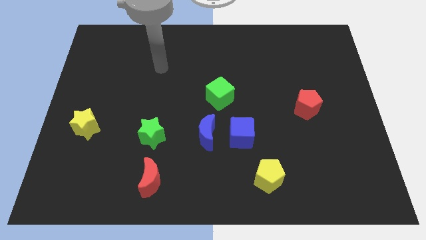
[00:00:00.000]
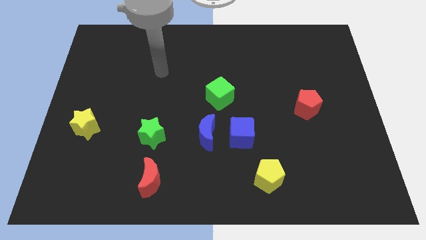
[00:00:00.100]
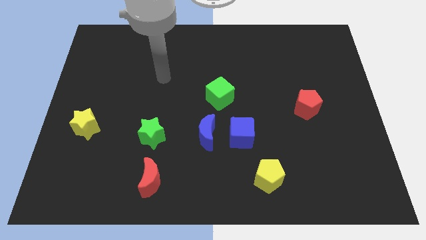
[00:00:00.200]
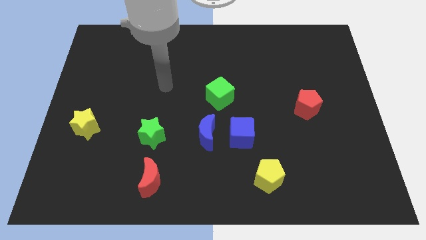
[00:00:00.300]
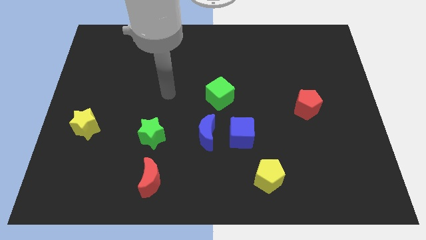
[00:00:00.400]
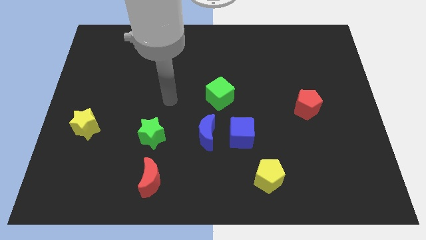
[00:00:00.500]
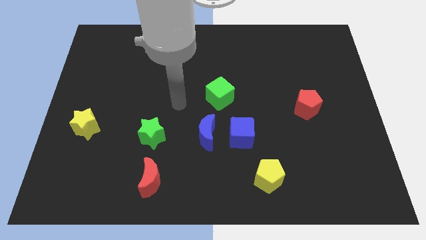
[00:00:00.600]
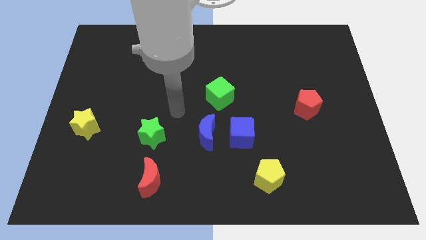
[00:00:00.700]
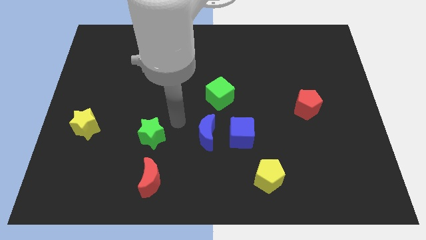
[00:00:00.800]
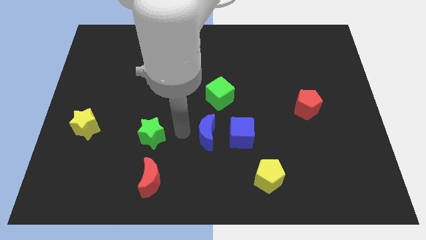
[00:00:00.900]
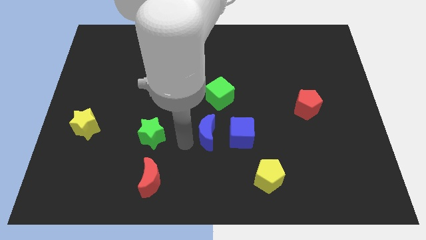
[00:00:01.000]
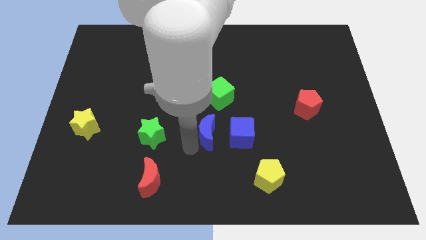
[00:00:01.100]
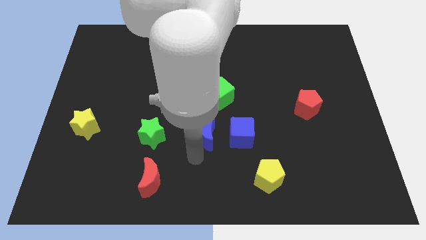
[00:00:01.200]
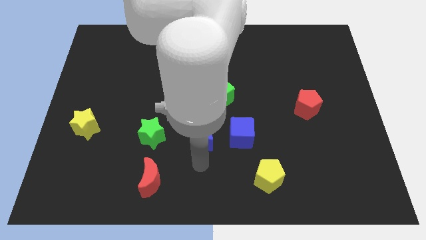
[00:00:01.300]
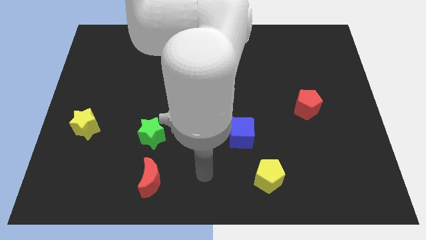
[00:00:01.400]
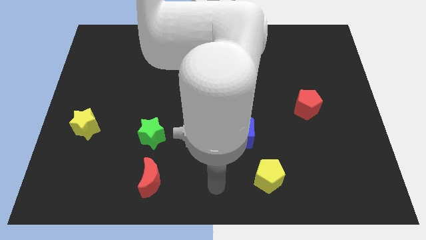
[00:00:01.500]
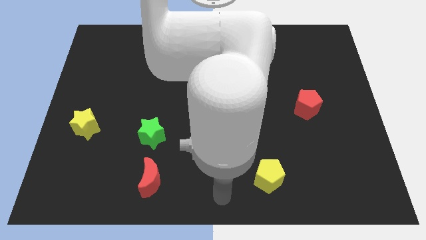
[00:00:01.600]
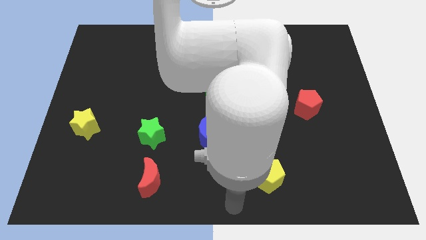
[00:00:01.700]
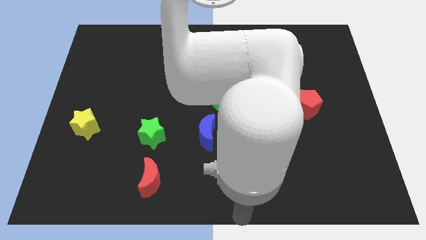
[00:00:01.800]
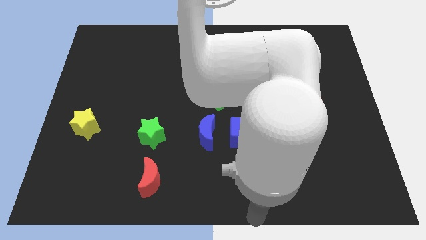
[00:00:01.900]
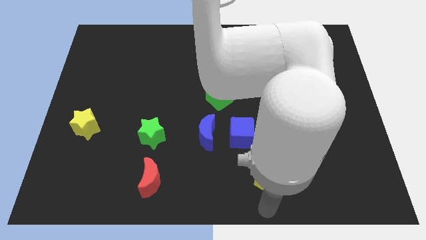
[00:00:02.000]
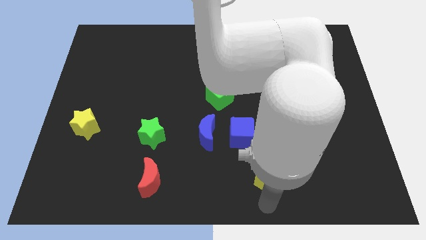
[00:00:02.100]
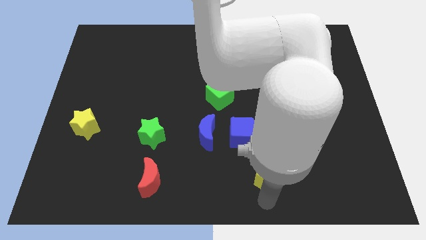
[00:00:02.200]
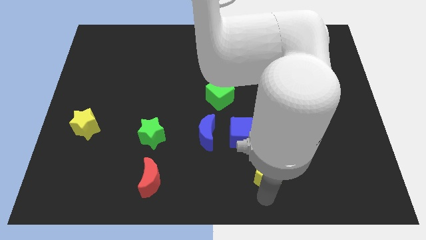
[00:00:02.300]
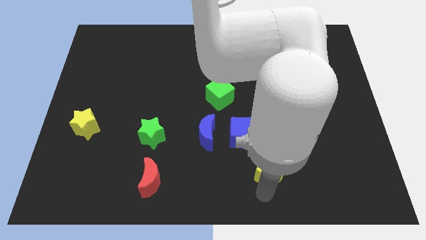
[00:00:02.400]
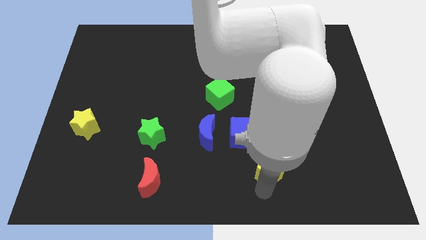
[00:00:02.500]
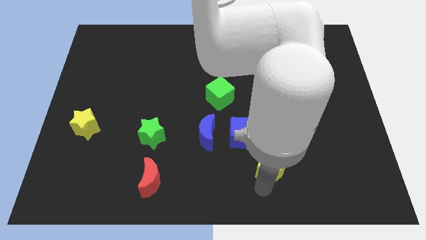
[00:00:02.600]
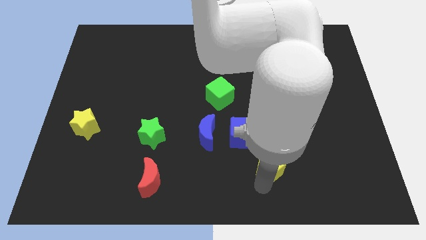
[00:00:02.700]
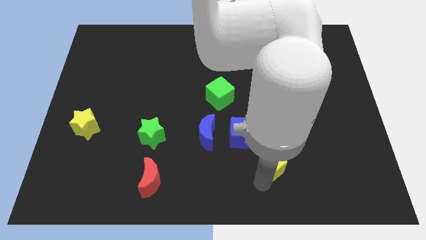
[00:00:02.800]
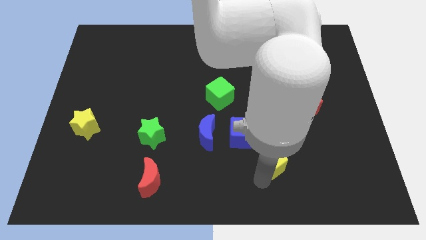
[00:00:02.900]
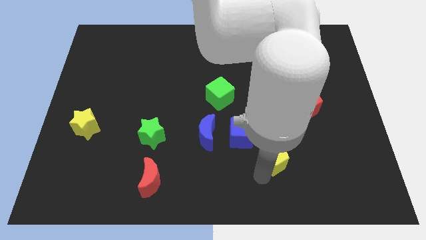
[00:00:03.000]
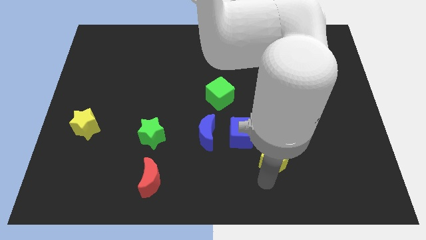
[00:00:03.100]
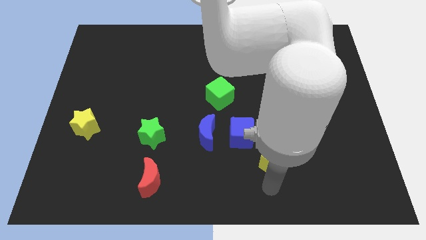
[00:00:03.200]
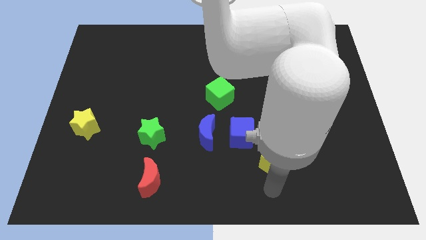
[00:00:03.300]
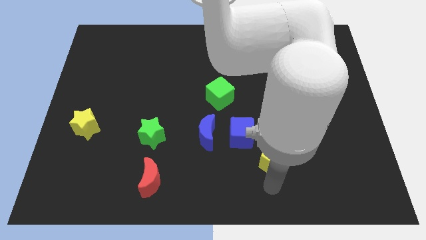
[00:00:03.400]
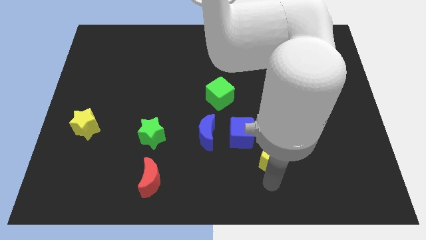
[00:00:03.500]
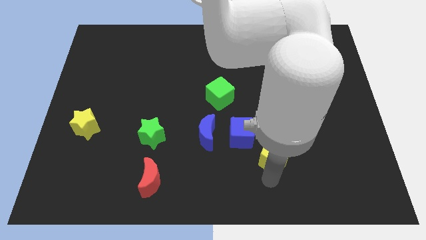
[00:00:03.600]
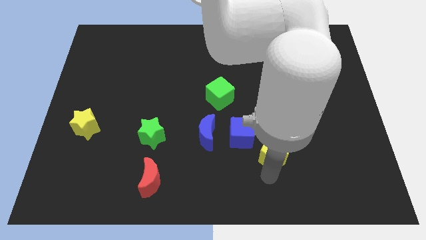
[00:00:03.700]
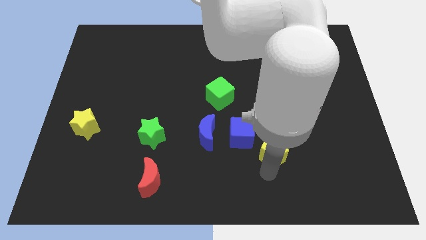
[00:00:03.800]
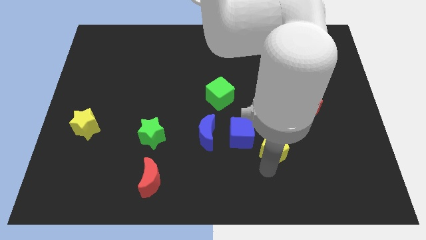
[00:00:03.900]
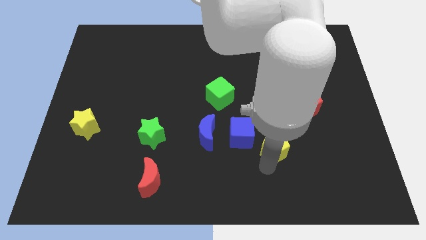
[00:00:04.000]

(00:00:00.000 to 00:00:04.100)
slide the yellow pentagon upwards a bit

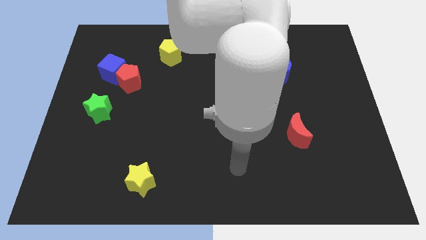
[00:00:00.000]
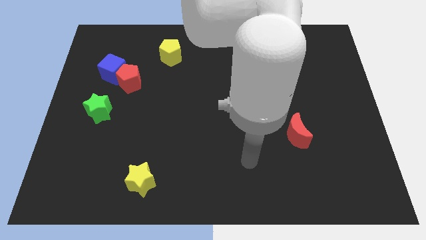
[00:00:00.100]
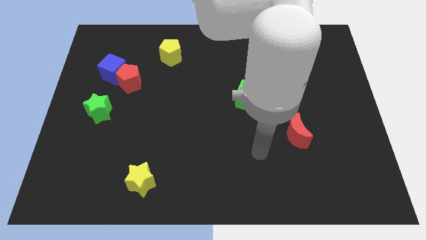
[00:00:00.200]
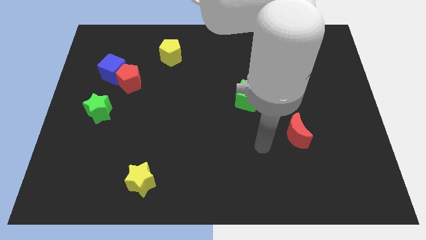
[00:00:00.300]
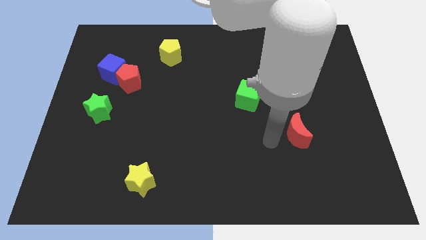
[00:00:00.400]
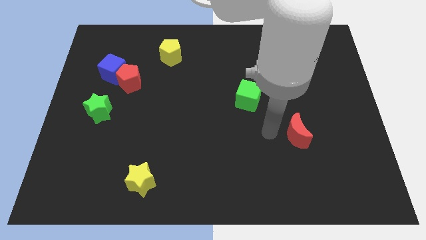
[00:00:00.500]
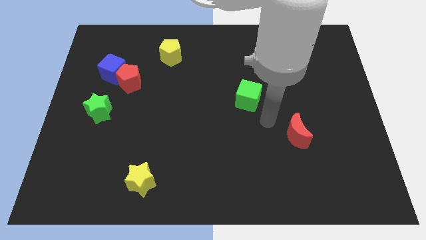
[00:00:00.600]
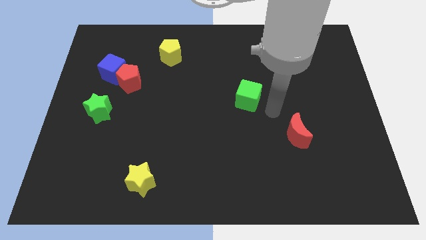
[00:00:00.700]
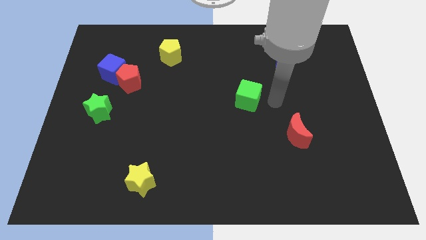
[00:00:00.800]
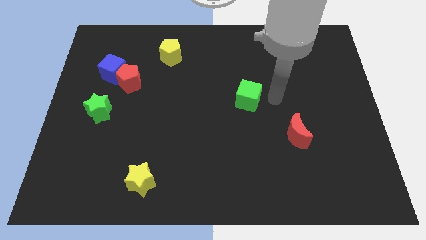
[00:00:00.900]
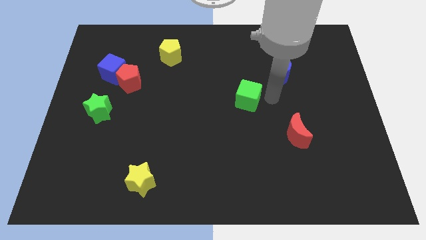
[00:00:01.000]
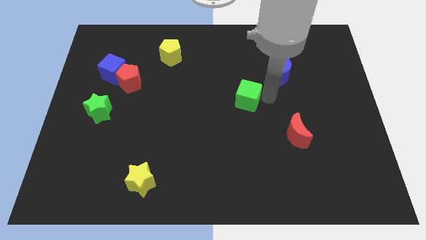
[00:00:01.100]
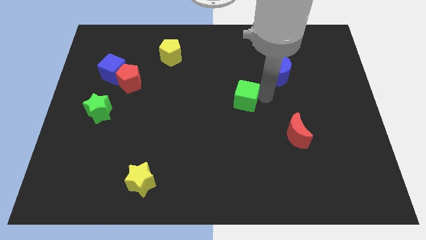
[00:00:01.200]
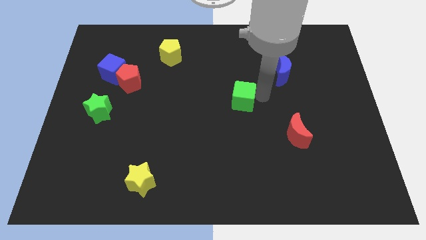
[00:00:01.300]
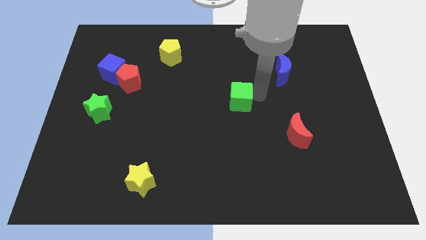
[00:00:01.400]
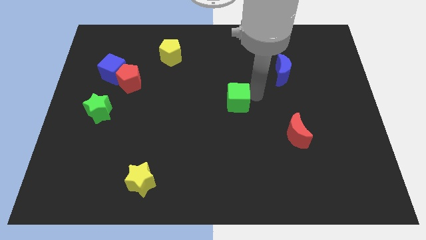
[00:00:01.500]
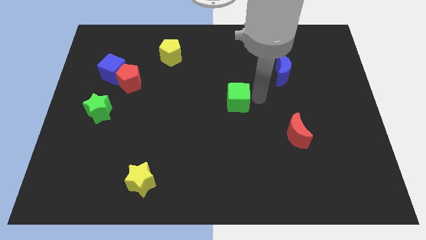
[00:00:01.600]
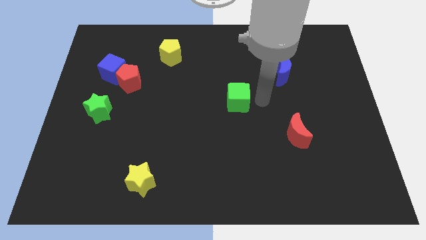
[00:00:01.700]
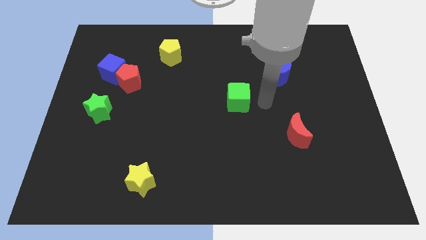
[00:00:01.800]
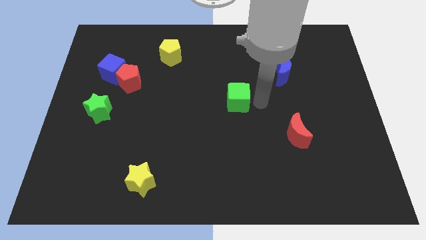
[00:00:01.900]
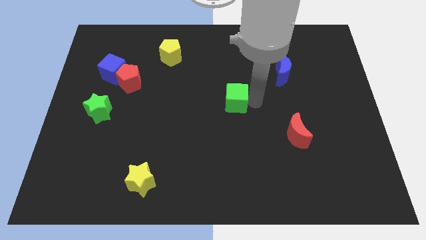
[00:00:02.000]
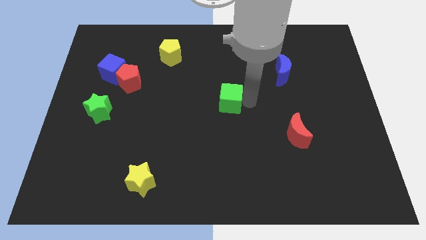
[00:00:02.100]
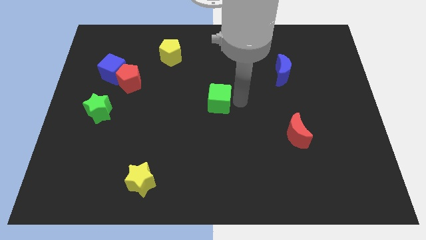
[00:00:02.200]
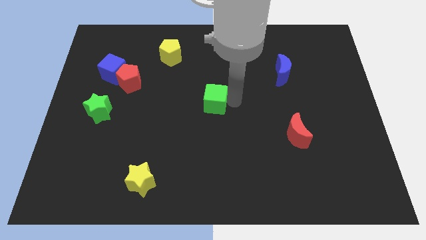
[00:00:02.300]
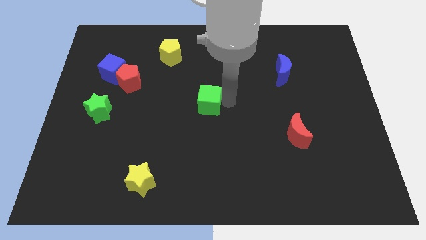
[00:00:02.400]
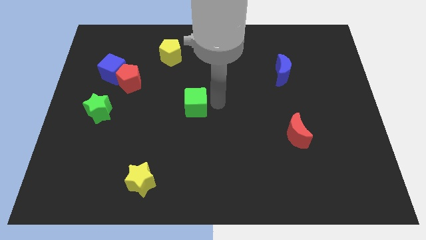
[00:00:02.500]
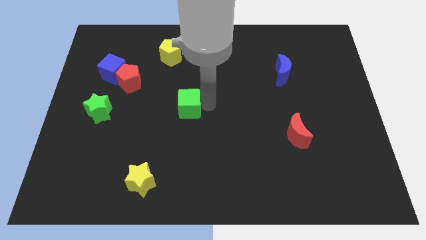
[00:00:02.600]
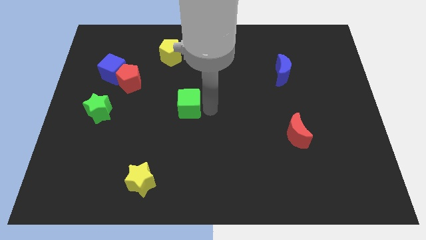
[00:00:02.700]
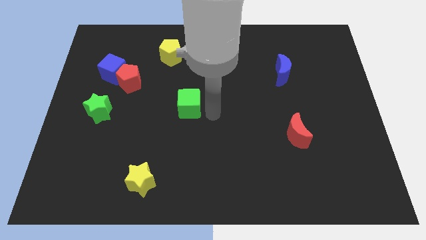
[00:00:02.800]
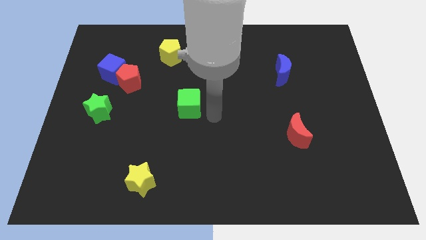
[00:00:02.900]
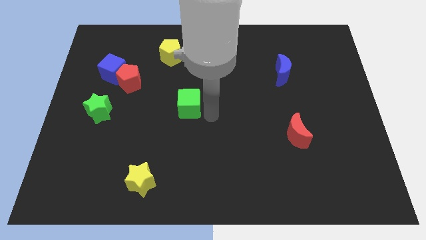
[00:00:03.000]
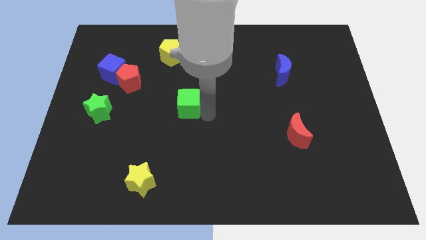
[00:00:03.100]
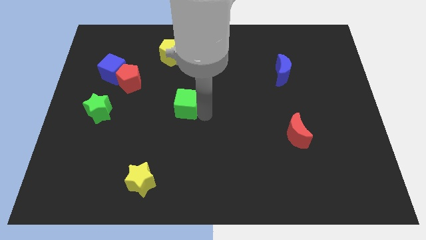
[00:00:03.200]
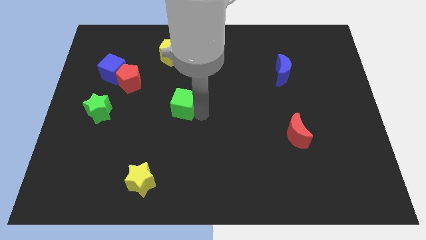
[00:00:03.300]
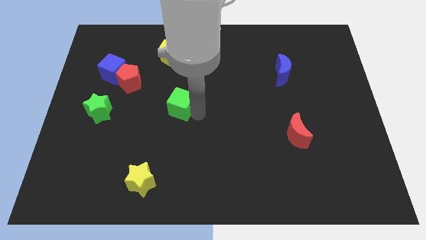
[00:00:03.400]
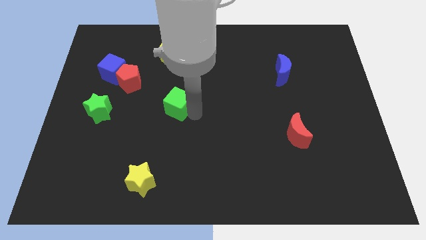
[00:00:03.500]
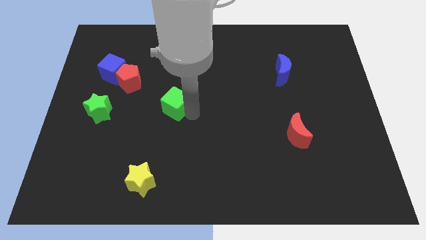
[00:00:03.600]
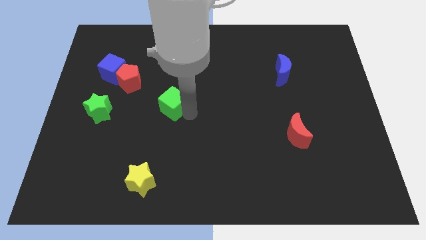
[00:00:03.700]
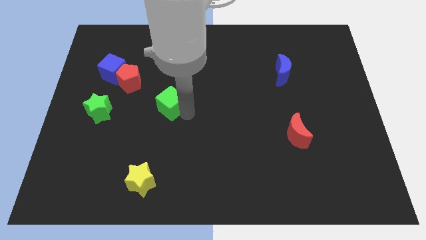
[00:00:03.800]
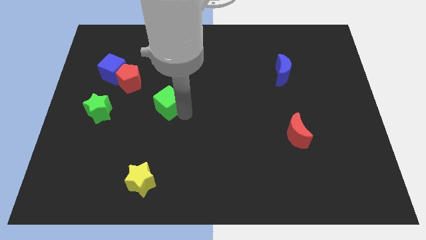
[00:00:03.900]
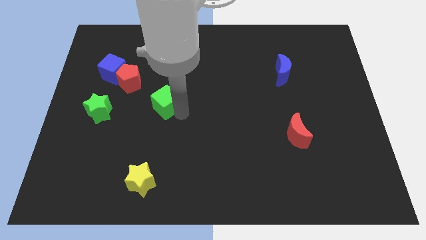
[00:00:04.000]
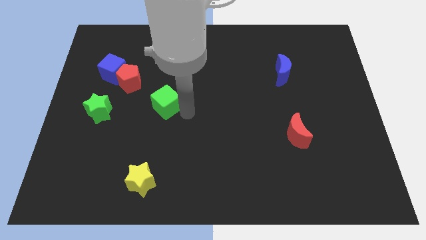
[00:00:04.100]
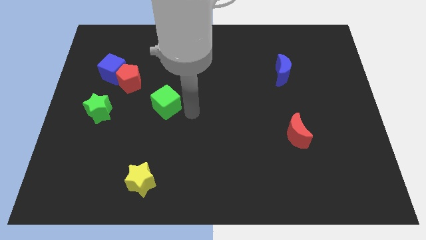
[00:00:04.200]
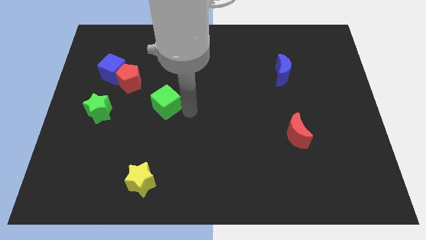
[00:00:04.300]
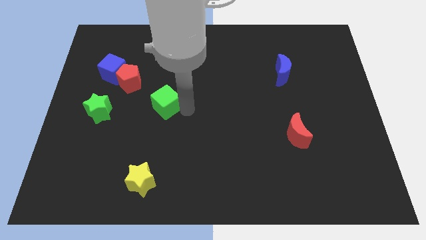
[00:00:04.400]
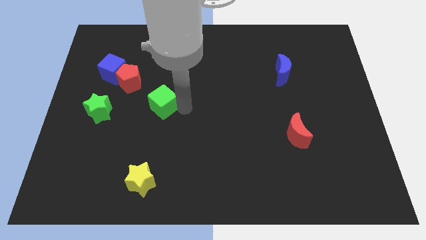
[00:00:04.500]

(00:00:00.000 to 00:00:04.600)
slide the green cube left

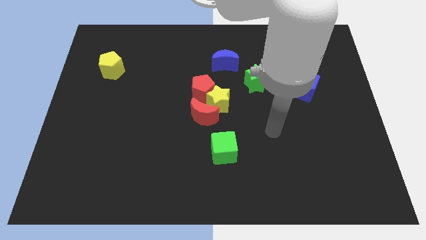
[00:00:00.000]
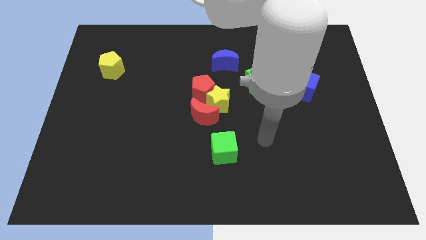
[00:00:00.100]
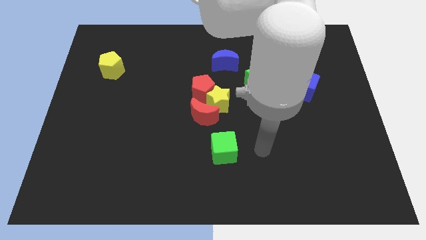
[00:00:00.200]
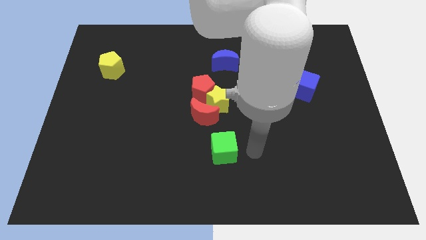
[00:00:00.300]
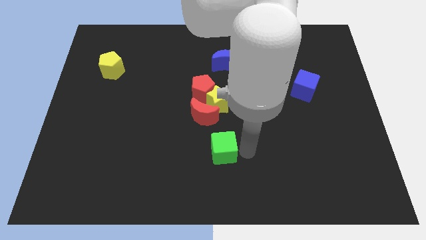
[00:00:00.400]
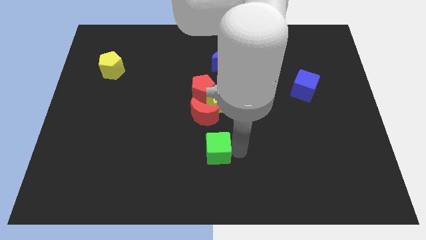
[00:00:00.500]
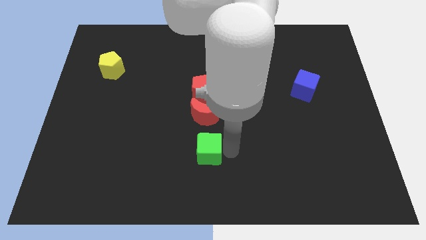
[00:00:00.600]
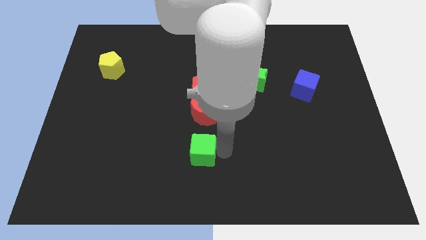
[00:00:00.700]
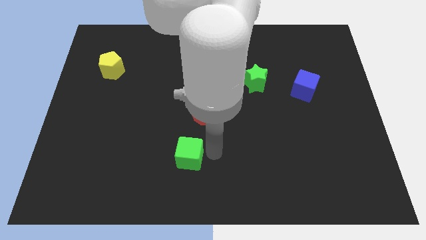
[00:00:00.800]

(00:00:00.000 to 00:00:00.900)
move the green cube to the left slightly
